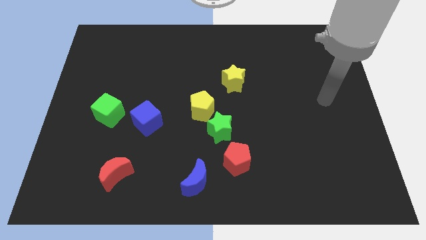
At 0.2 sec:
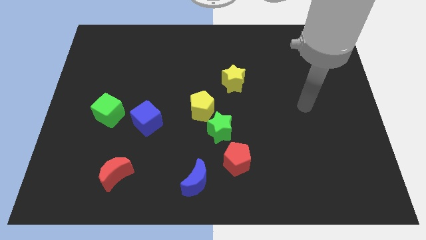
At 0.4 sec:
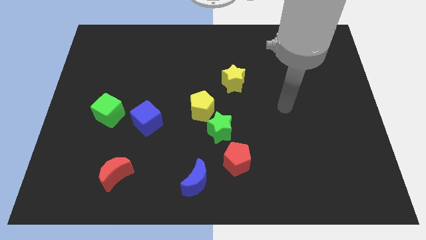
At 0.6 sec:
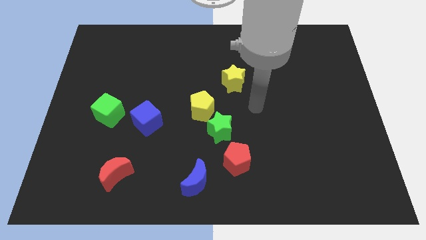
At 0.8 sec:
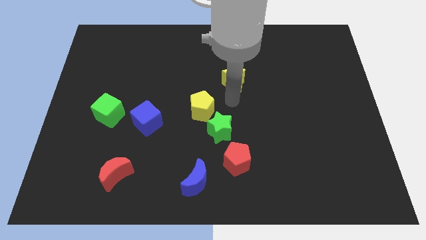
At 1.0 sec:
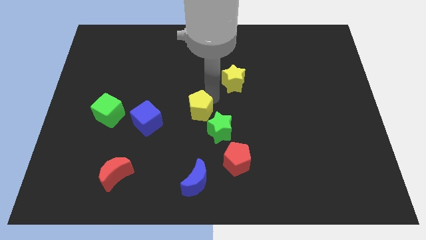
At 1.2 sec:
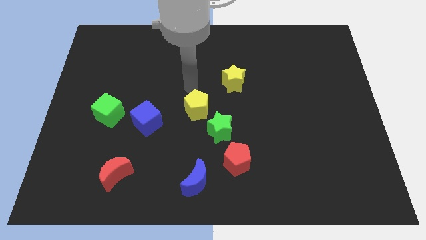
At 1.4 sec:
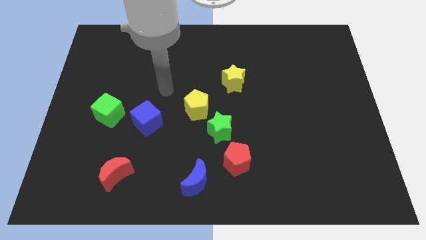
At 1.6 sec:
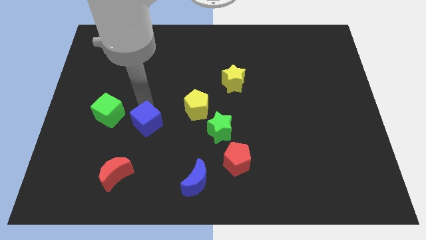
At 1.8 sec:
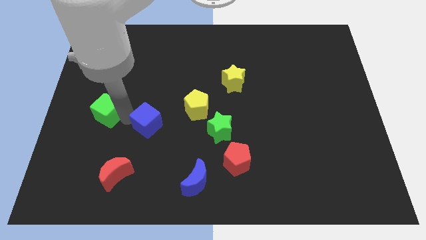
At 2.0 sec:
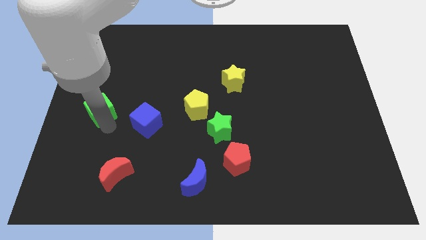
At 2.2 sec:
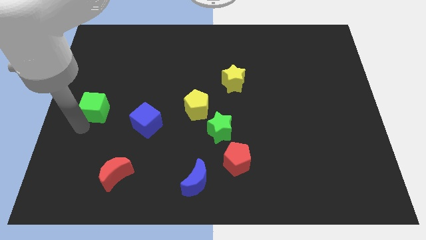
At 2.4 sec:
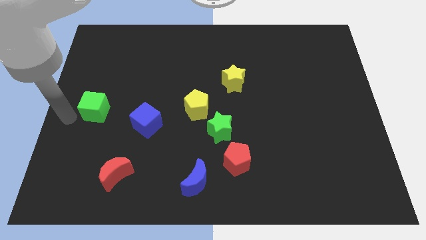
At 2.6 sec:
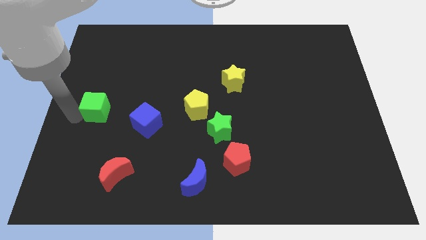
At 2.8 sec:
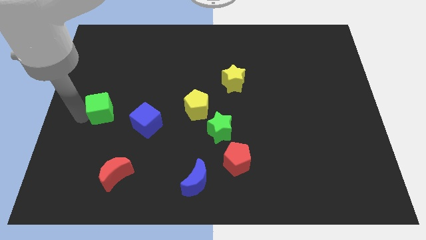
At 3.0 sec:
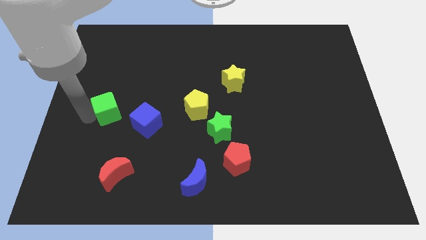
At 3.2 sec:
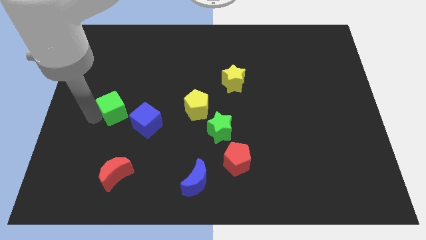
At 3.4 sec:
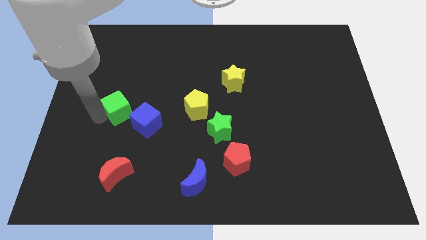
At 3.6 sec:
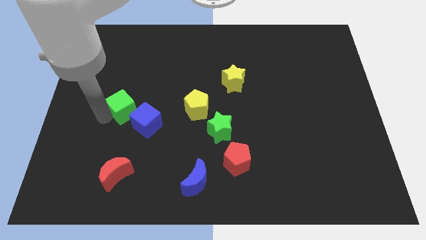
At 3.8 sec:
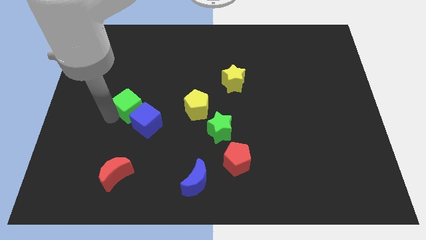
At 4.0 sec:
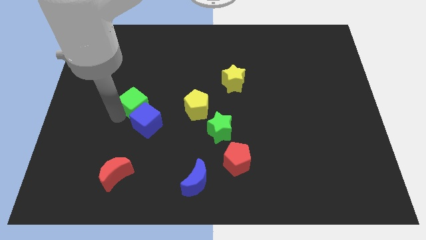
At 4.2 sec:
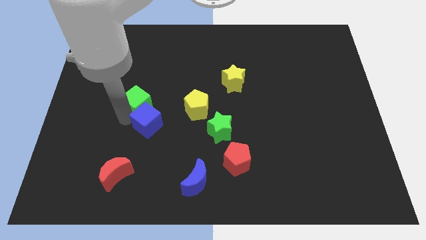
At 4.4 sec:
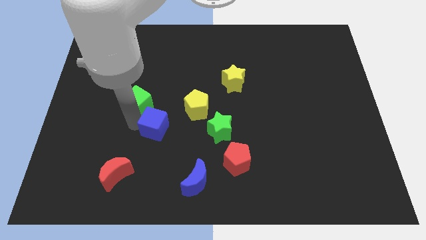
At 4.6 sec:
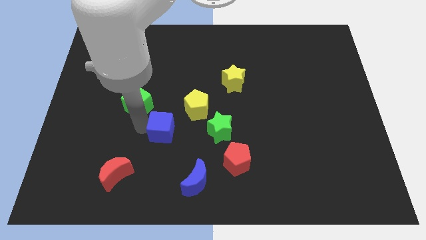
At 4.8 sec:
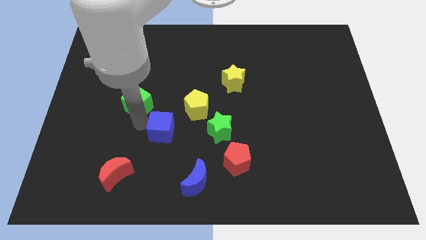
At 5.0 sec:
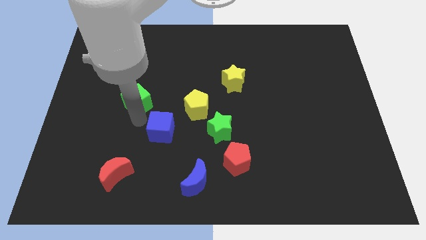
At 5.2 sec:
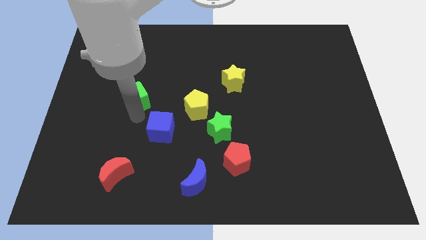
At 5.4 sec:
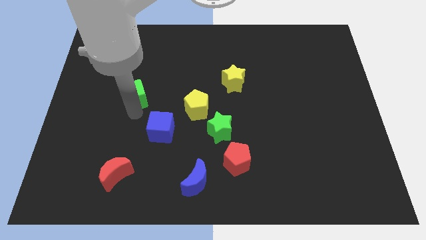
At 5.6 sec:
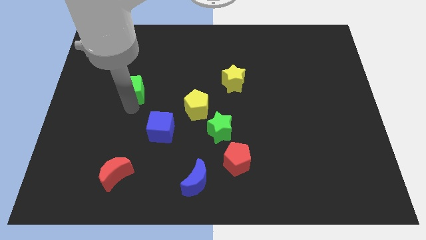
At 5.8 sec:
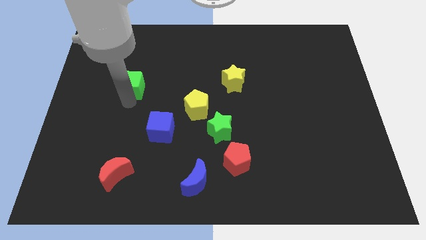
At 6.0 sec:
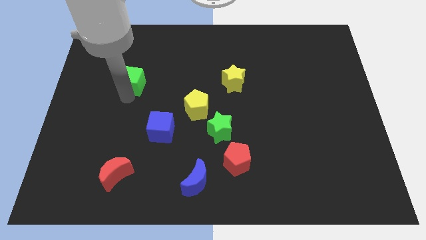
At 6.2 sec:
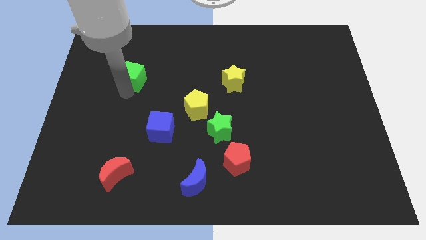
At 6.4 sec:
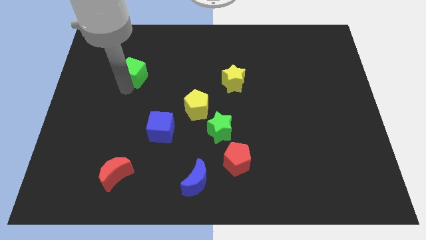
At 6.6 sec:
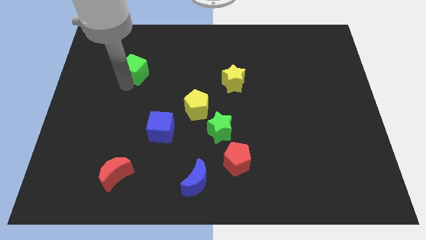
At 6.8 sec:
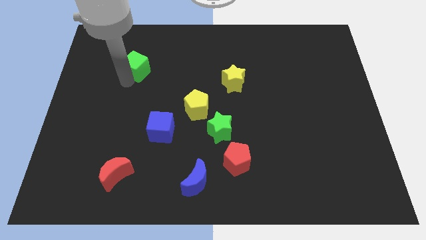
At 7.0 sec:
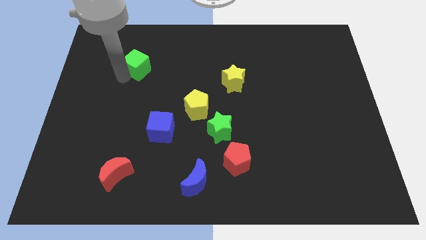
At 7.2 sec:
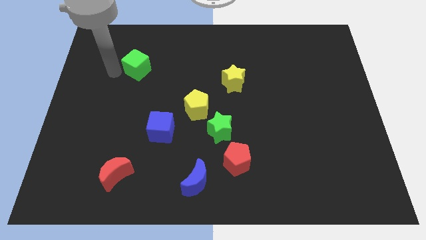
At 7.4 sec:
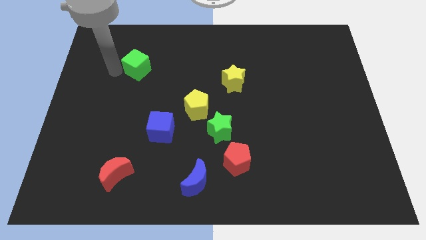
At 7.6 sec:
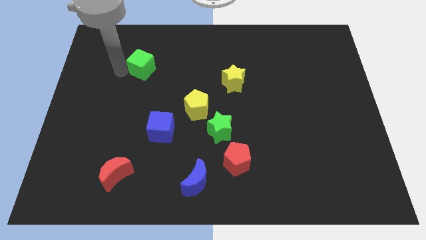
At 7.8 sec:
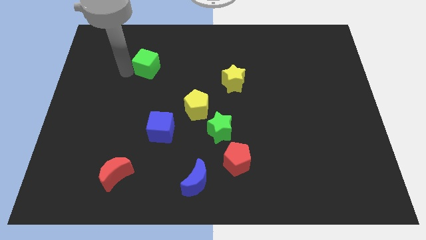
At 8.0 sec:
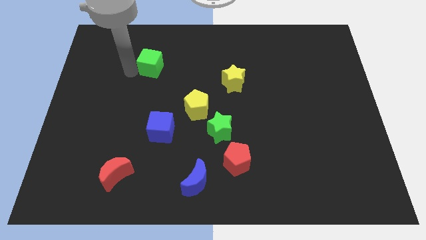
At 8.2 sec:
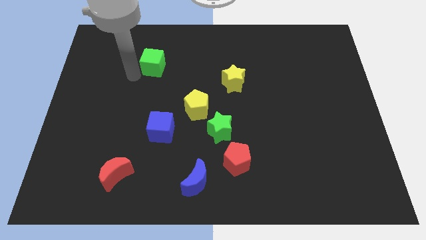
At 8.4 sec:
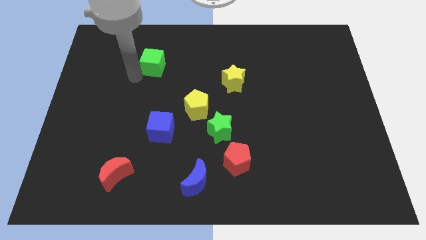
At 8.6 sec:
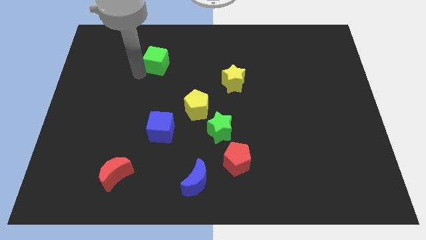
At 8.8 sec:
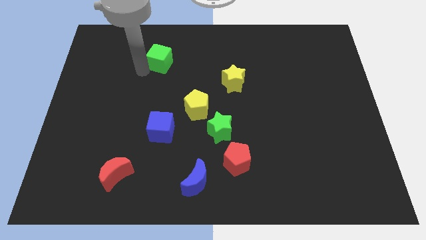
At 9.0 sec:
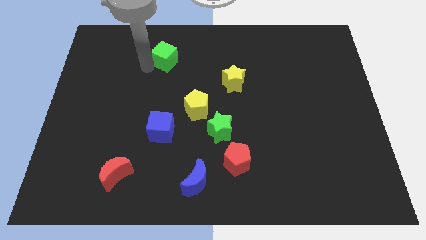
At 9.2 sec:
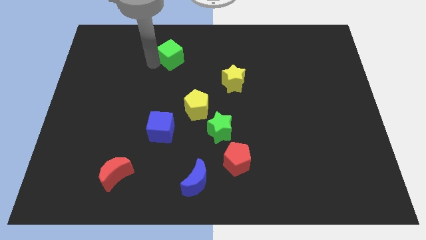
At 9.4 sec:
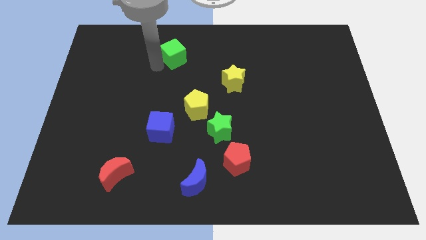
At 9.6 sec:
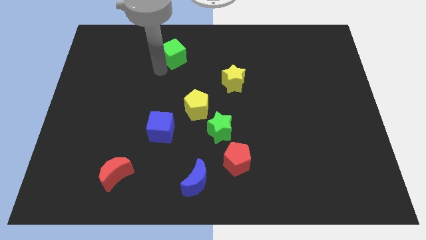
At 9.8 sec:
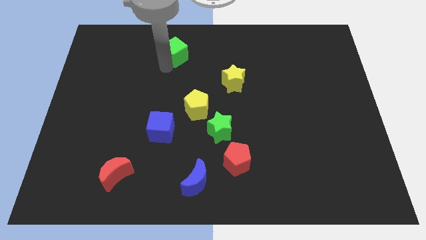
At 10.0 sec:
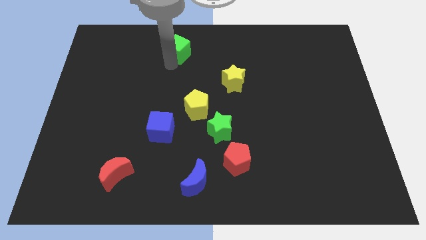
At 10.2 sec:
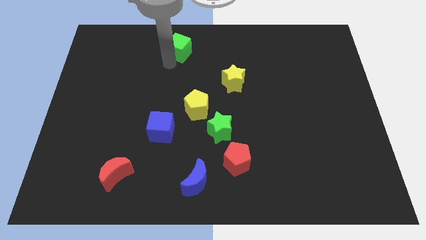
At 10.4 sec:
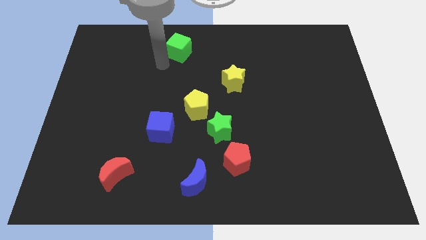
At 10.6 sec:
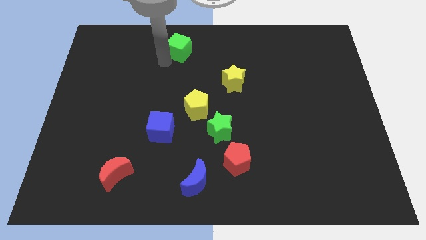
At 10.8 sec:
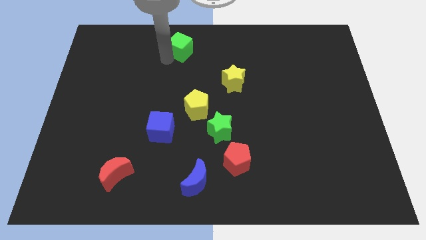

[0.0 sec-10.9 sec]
slide the green cube to the top side

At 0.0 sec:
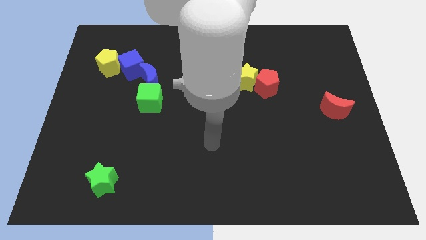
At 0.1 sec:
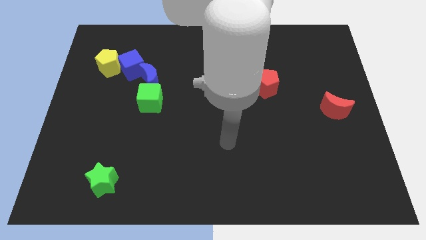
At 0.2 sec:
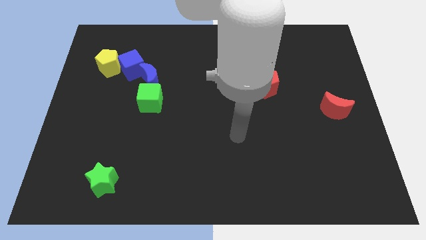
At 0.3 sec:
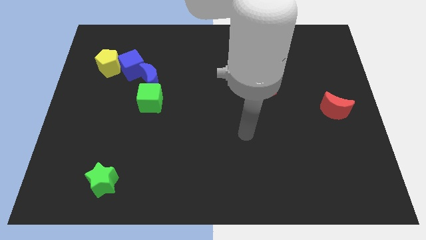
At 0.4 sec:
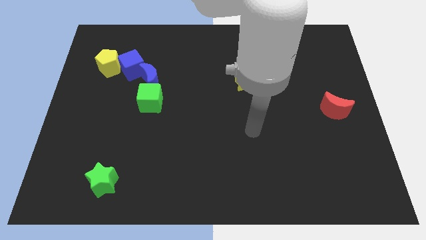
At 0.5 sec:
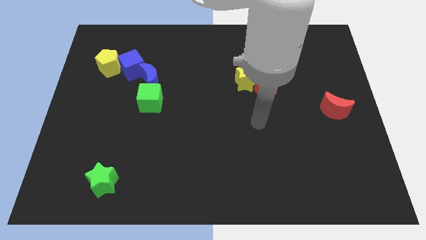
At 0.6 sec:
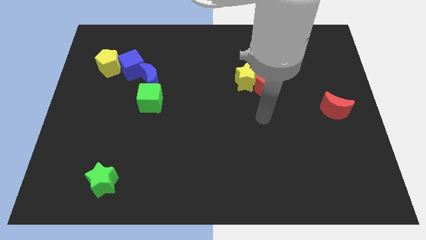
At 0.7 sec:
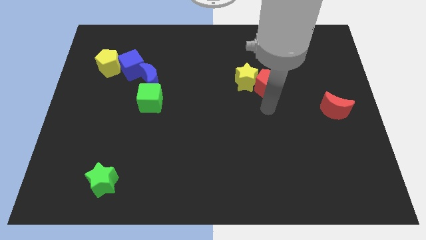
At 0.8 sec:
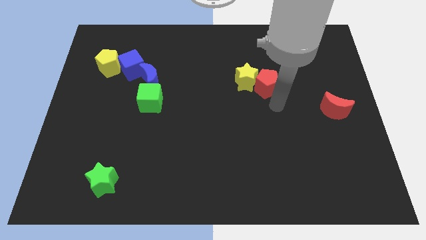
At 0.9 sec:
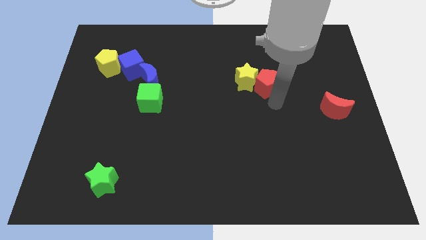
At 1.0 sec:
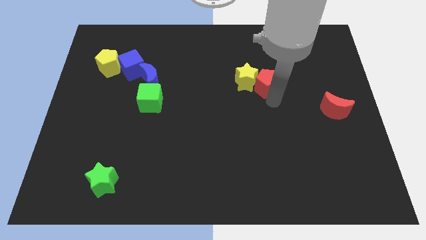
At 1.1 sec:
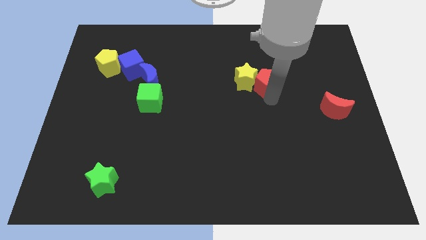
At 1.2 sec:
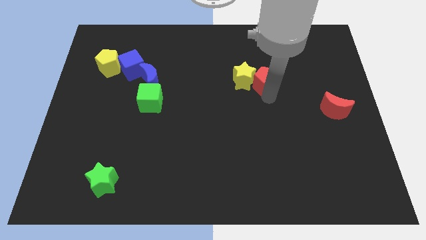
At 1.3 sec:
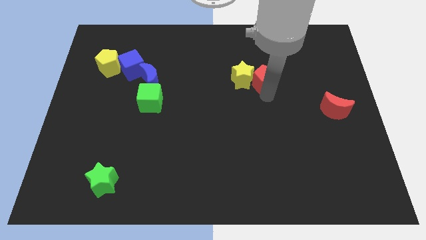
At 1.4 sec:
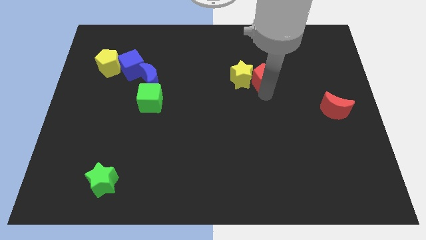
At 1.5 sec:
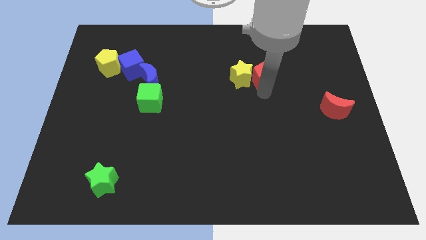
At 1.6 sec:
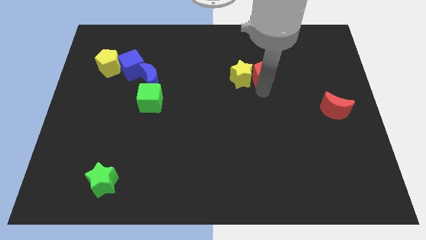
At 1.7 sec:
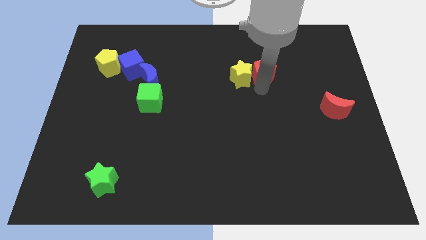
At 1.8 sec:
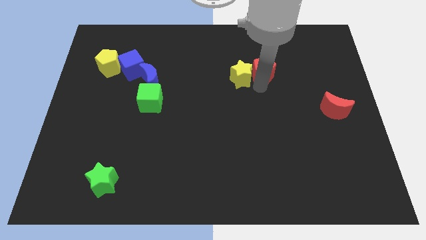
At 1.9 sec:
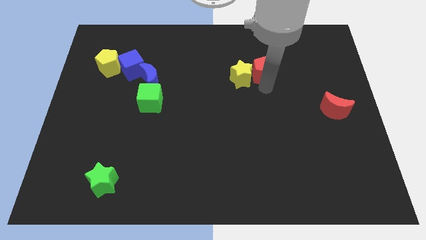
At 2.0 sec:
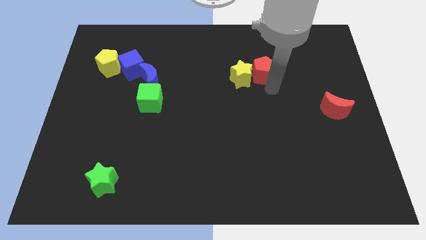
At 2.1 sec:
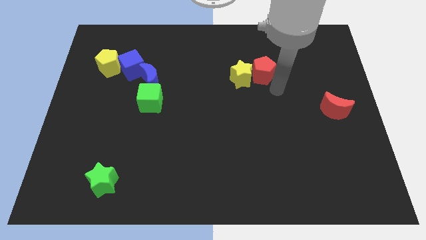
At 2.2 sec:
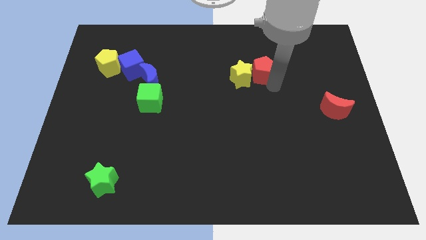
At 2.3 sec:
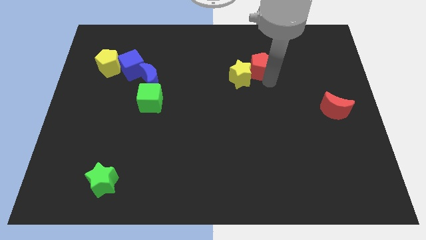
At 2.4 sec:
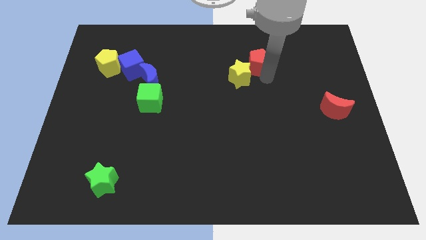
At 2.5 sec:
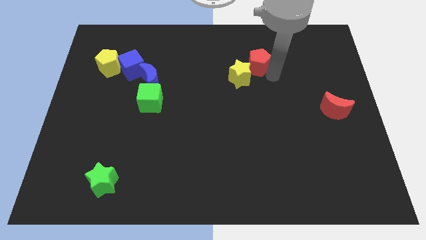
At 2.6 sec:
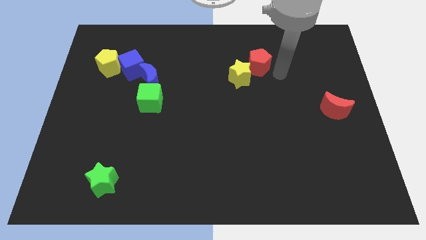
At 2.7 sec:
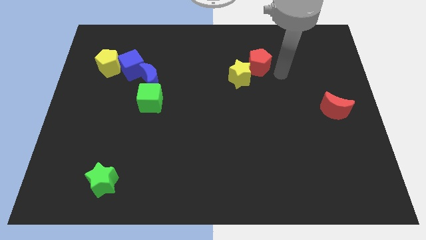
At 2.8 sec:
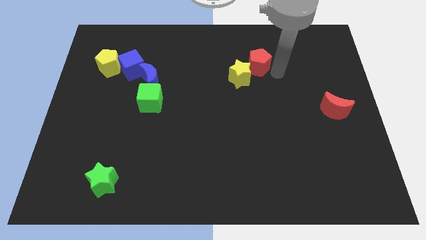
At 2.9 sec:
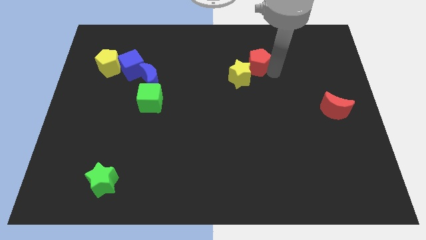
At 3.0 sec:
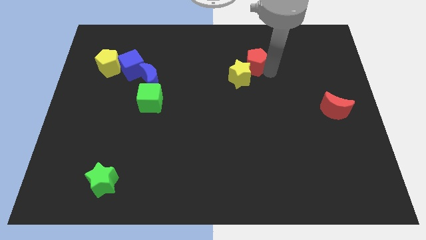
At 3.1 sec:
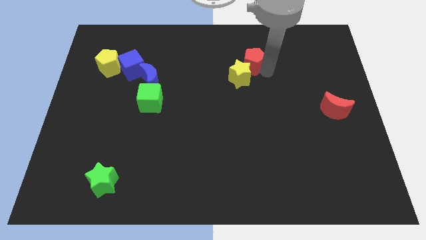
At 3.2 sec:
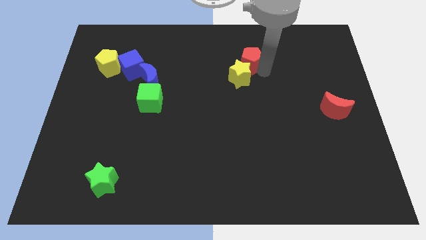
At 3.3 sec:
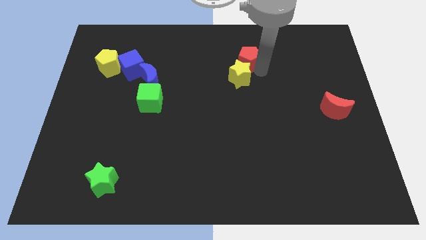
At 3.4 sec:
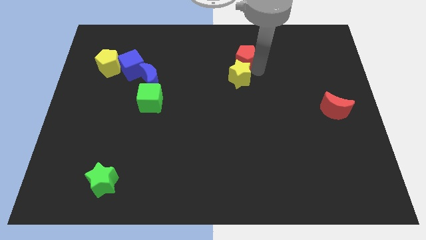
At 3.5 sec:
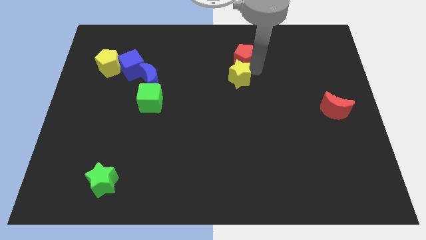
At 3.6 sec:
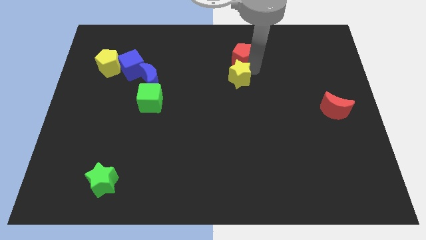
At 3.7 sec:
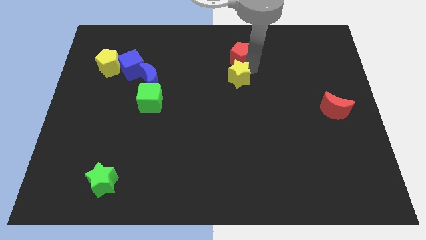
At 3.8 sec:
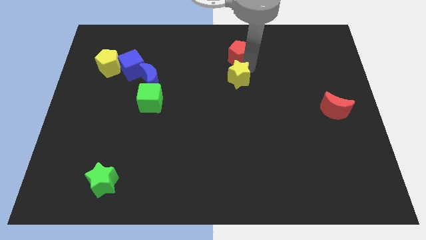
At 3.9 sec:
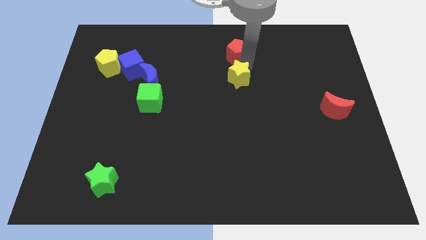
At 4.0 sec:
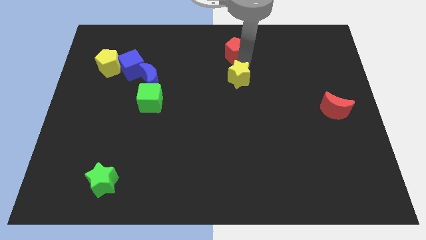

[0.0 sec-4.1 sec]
put the red pentagon to the top side
